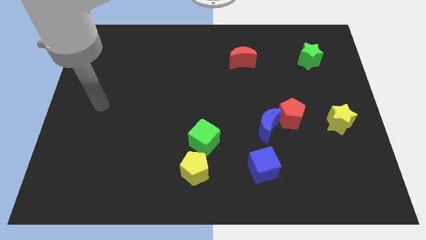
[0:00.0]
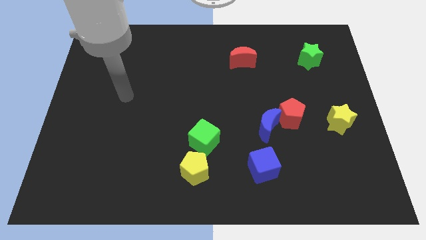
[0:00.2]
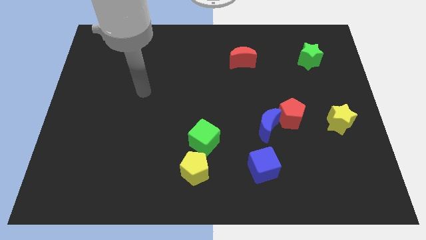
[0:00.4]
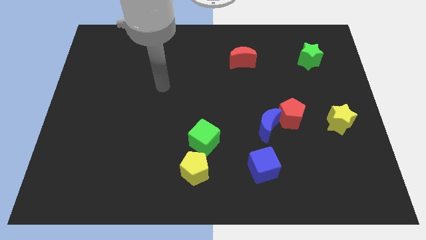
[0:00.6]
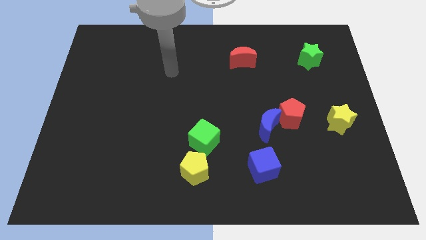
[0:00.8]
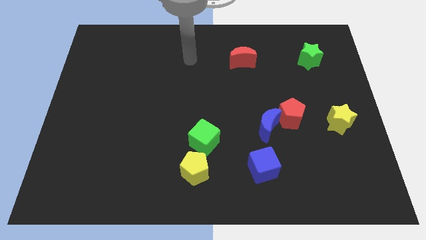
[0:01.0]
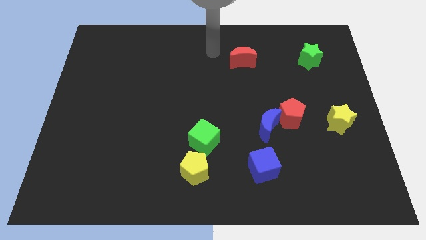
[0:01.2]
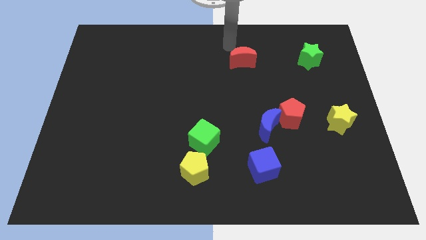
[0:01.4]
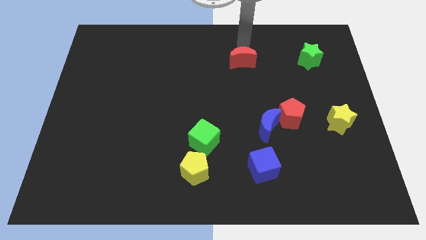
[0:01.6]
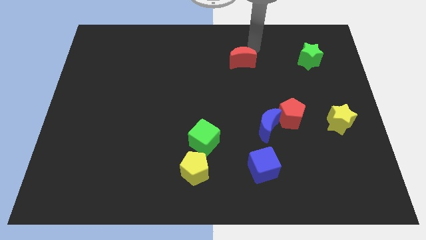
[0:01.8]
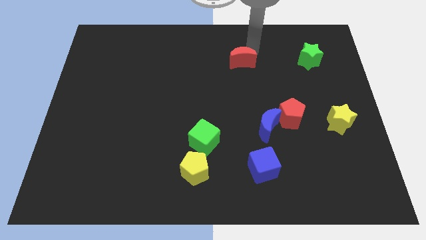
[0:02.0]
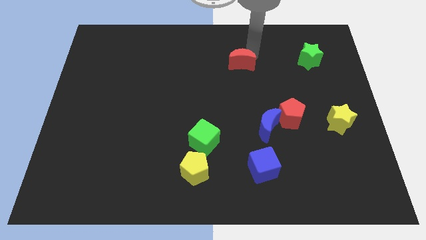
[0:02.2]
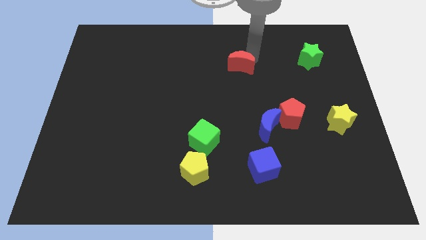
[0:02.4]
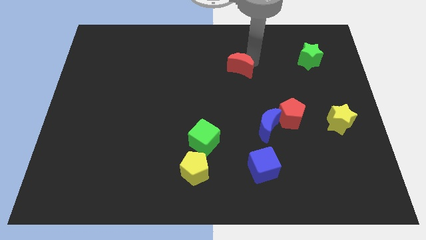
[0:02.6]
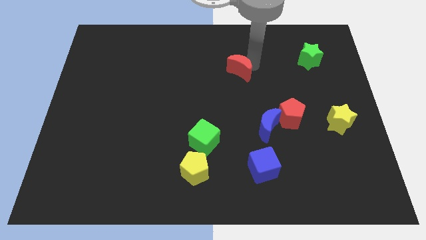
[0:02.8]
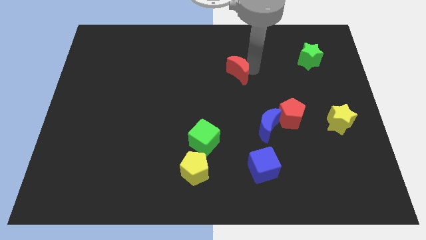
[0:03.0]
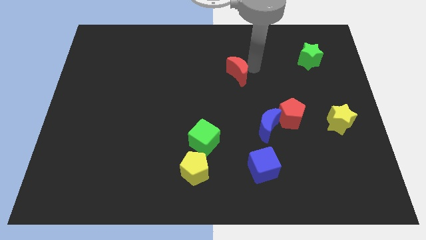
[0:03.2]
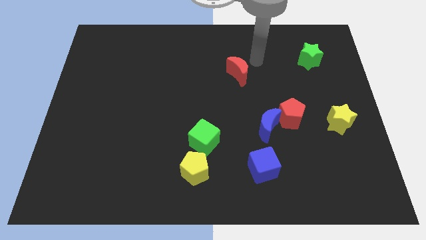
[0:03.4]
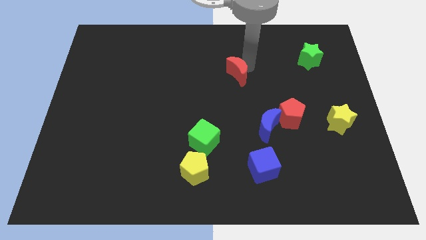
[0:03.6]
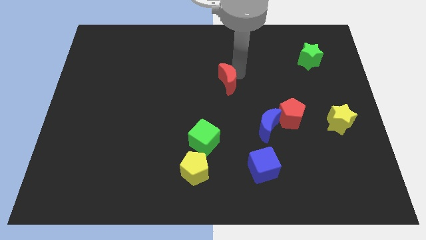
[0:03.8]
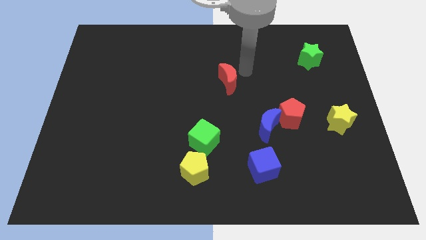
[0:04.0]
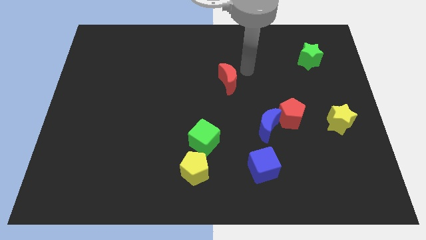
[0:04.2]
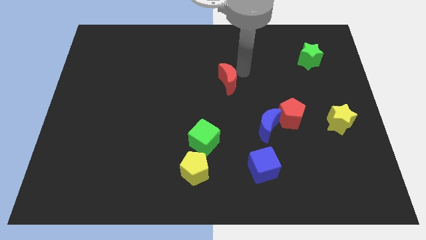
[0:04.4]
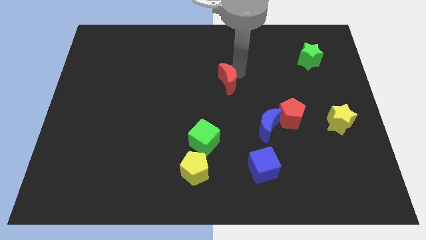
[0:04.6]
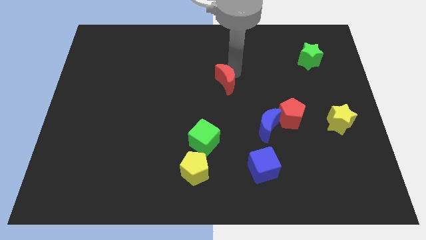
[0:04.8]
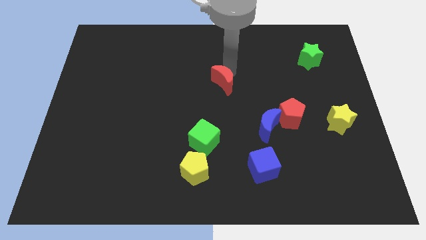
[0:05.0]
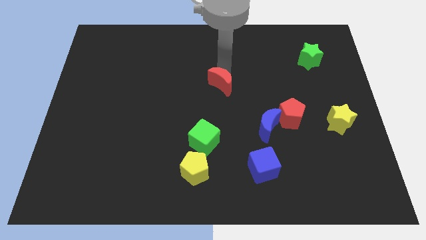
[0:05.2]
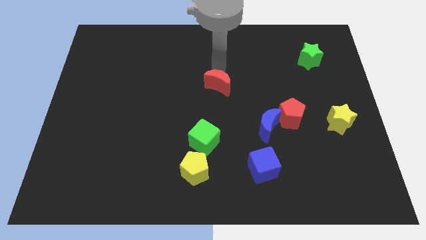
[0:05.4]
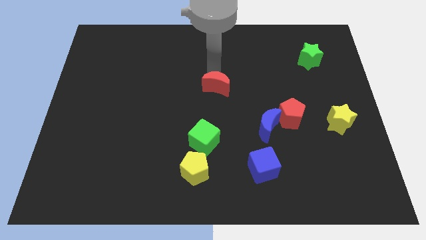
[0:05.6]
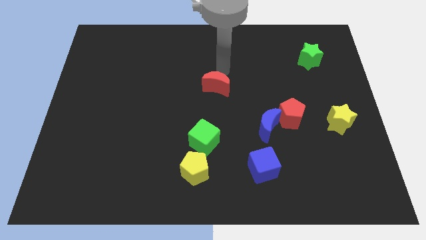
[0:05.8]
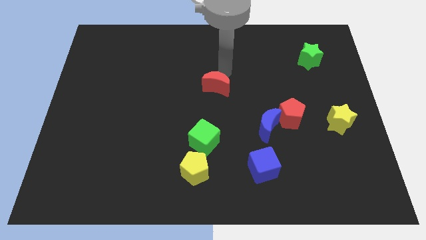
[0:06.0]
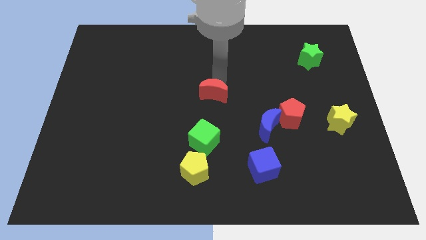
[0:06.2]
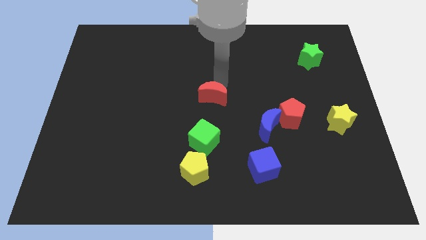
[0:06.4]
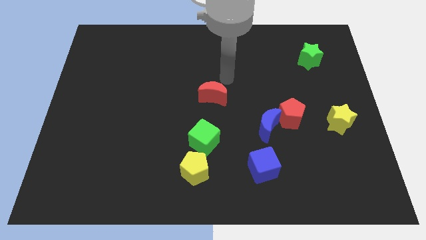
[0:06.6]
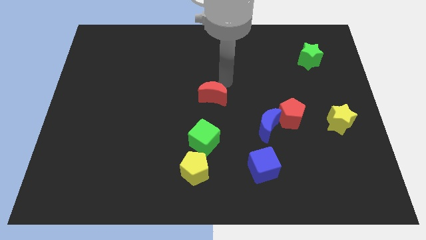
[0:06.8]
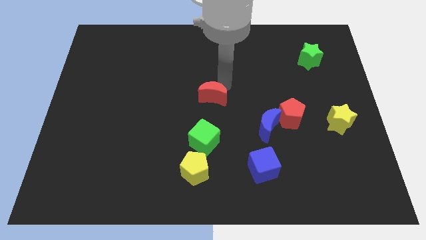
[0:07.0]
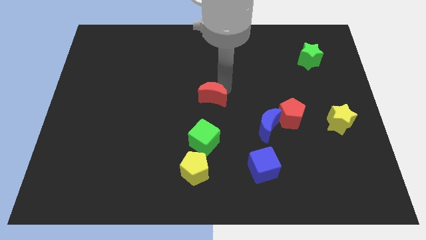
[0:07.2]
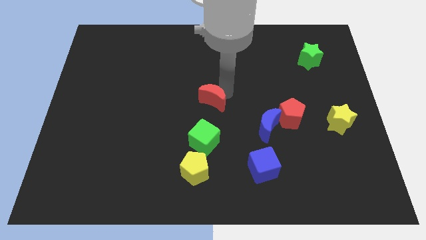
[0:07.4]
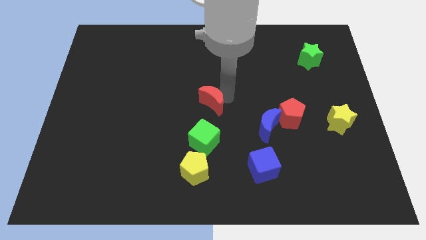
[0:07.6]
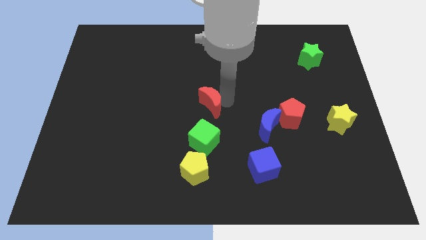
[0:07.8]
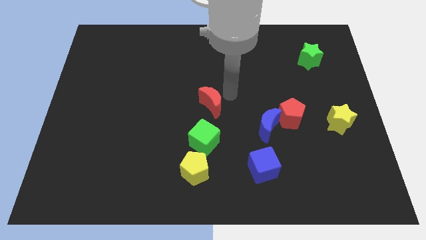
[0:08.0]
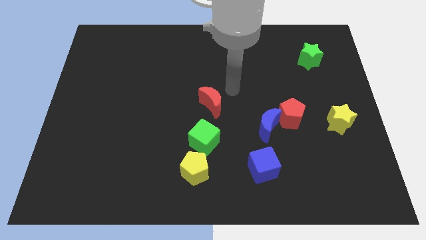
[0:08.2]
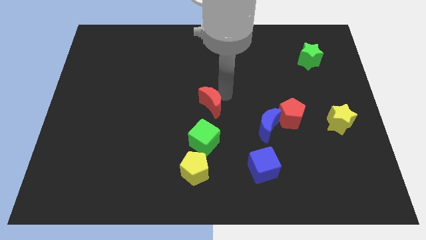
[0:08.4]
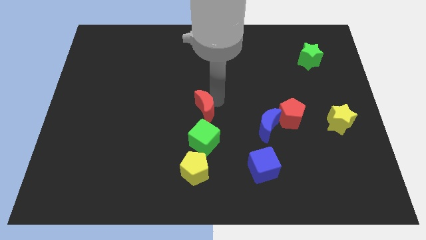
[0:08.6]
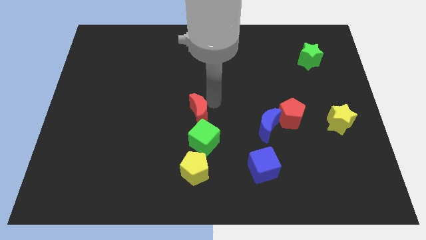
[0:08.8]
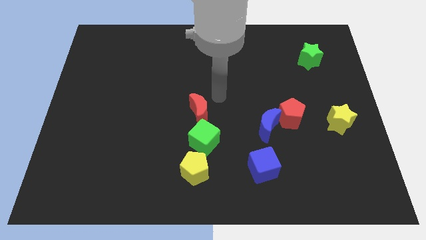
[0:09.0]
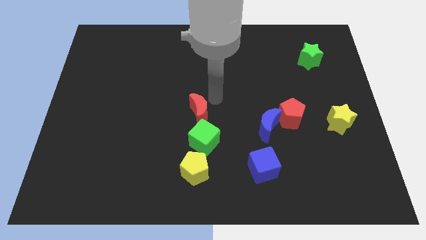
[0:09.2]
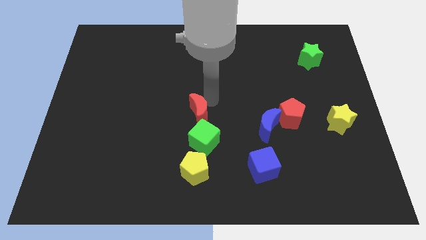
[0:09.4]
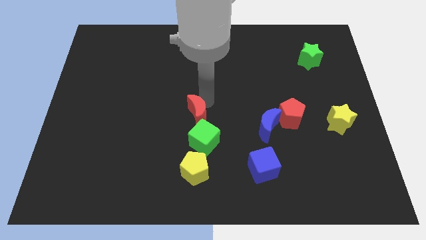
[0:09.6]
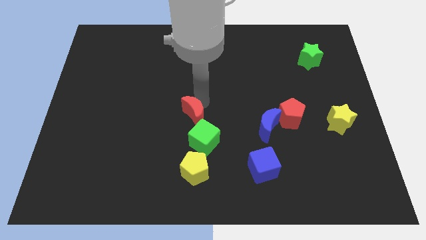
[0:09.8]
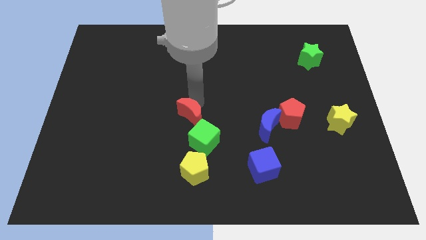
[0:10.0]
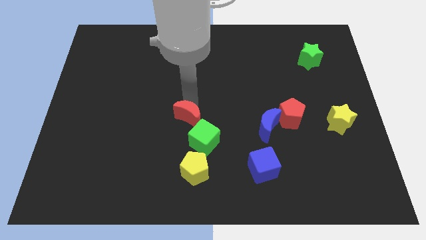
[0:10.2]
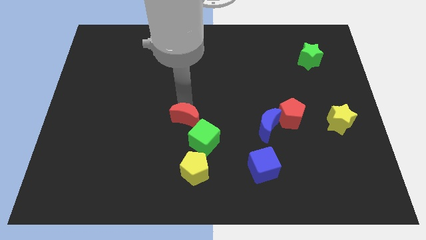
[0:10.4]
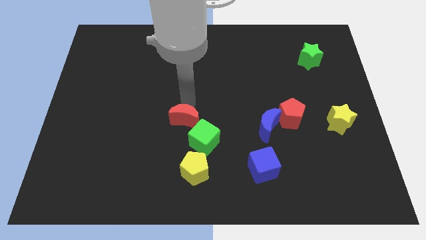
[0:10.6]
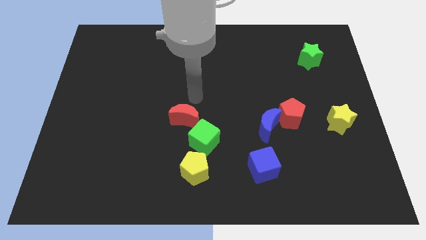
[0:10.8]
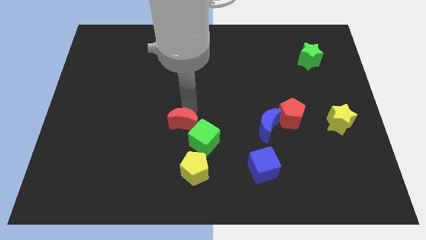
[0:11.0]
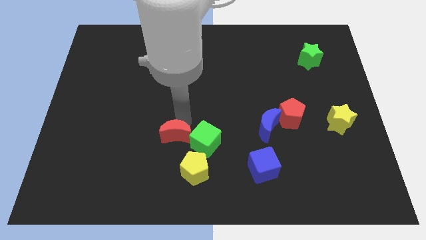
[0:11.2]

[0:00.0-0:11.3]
move the red moon diagonally up and to the left of the yellow pentagon

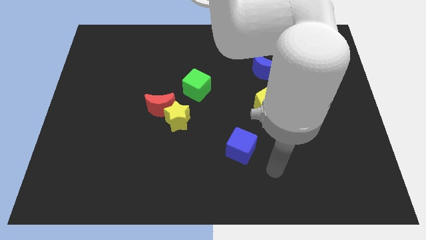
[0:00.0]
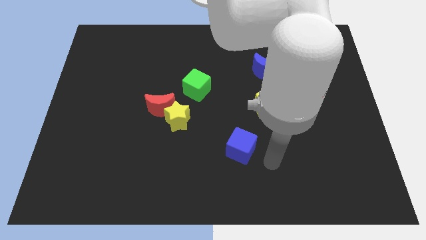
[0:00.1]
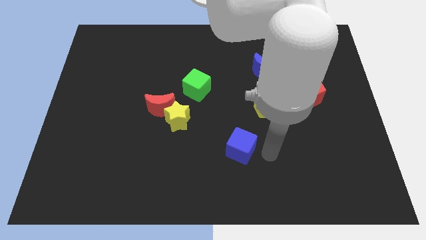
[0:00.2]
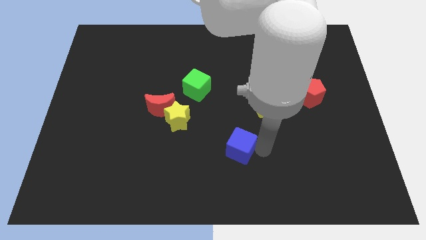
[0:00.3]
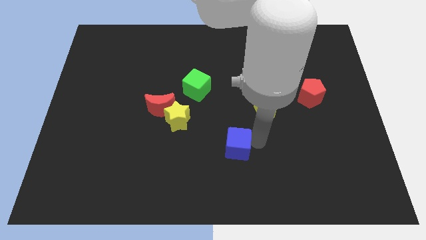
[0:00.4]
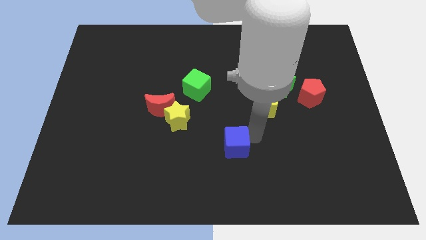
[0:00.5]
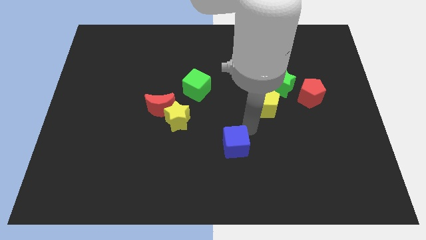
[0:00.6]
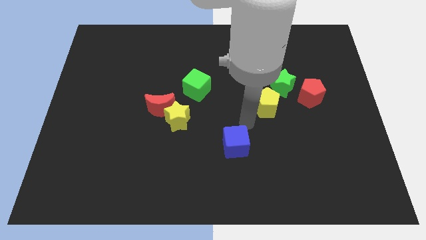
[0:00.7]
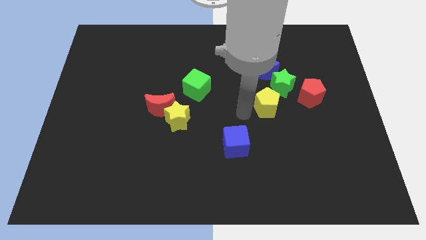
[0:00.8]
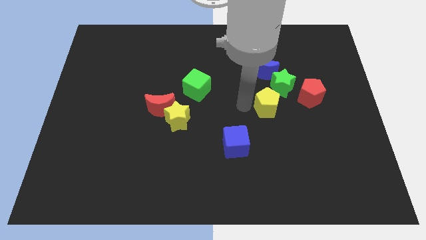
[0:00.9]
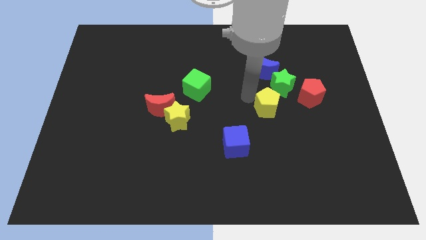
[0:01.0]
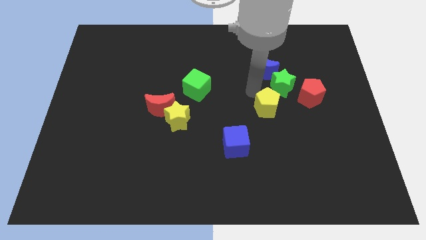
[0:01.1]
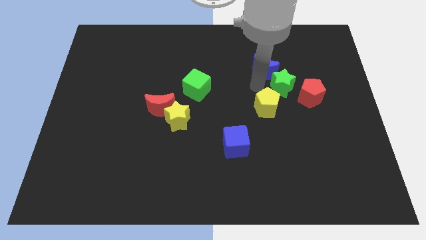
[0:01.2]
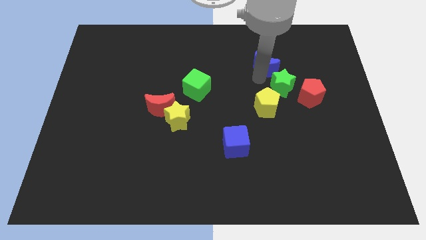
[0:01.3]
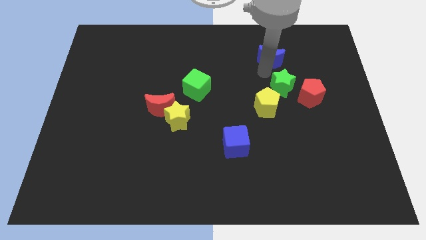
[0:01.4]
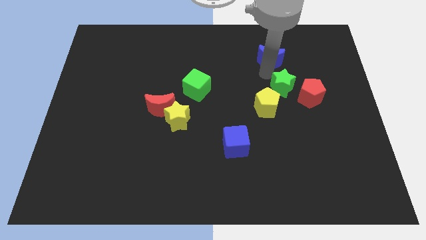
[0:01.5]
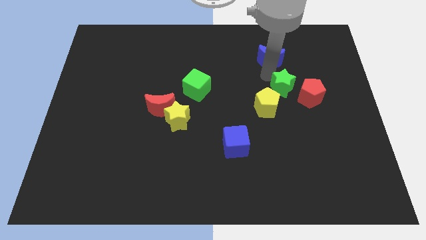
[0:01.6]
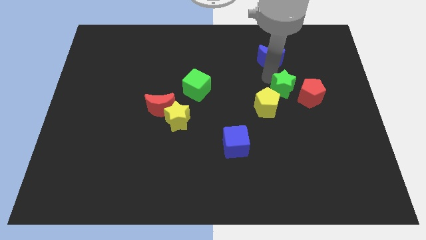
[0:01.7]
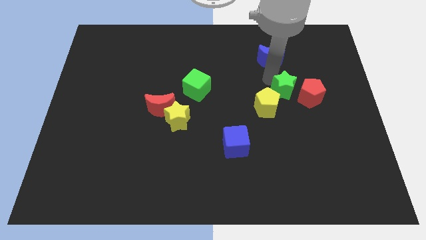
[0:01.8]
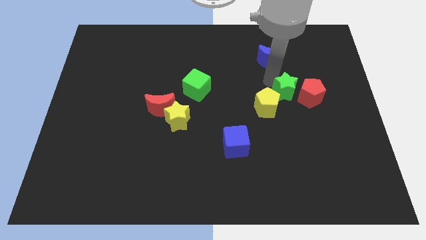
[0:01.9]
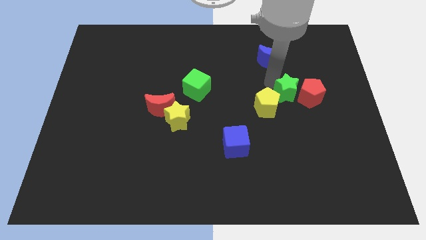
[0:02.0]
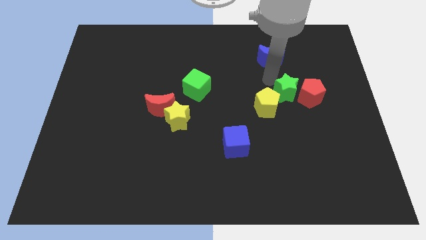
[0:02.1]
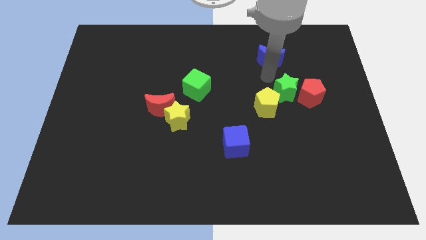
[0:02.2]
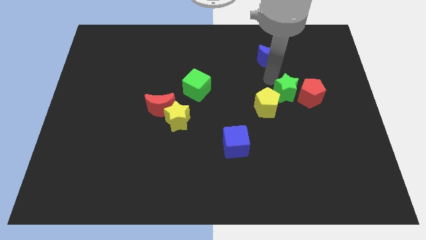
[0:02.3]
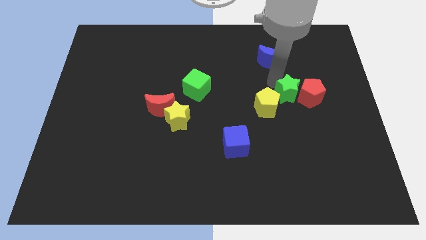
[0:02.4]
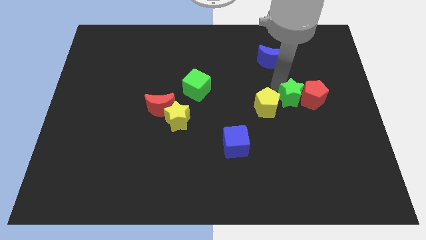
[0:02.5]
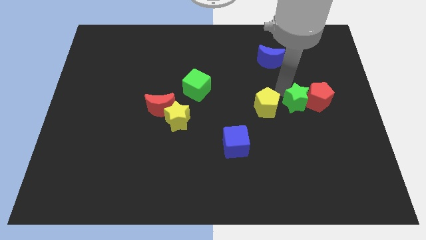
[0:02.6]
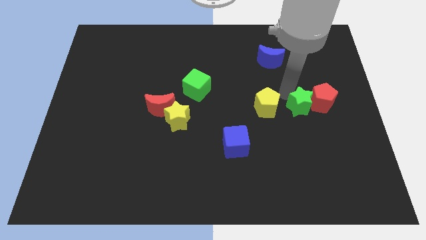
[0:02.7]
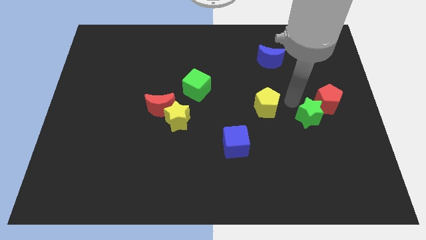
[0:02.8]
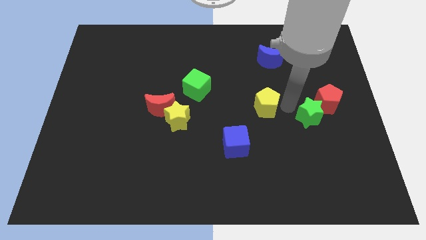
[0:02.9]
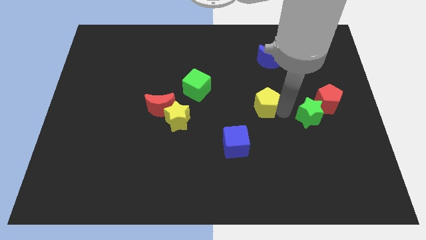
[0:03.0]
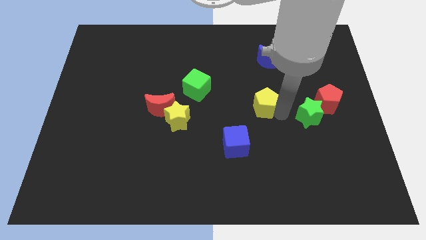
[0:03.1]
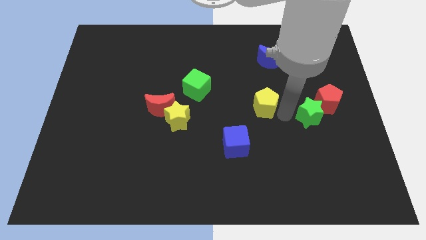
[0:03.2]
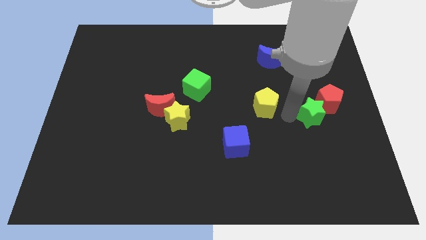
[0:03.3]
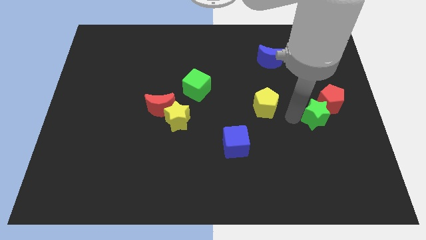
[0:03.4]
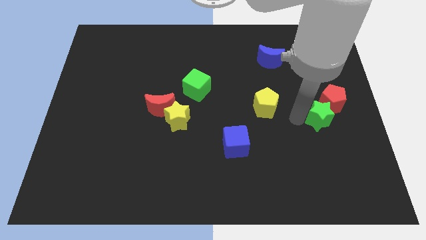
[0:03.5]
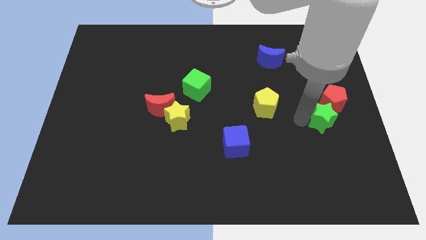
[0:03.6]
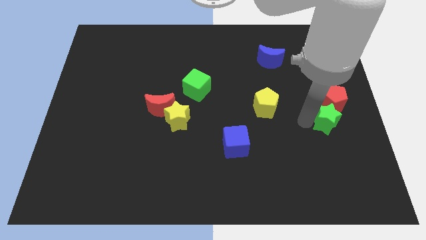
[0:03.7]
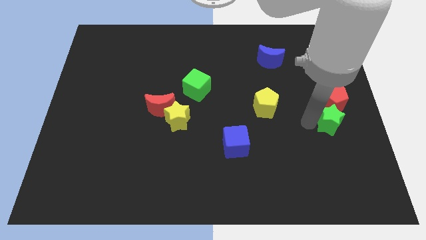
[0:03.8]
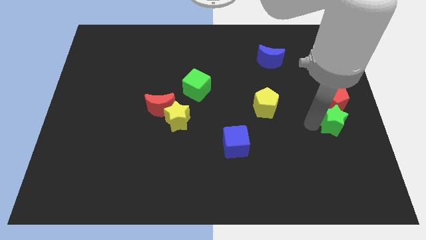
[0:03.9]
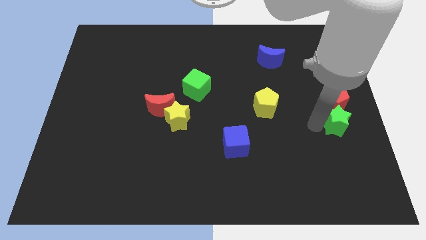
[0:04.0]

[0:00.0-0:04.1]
push the green star to the bottom right side of the red pentagon
